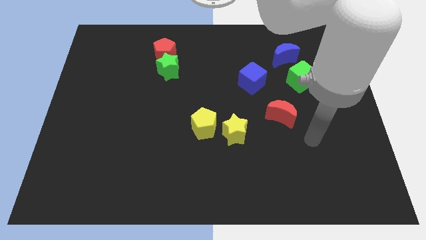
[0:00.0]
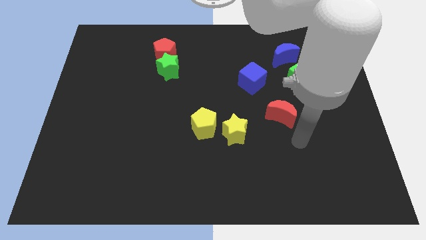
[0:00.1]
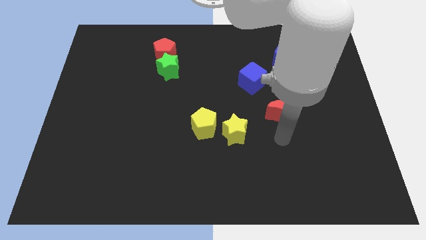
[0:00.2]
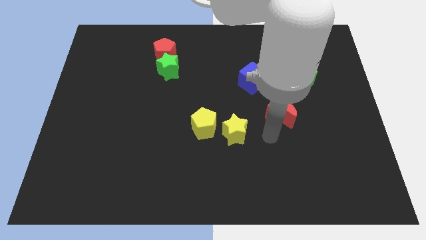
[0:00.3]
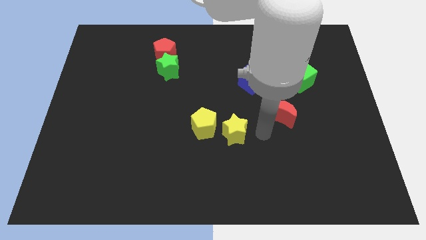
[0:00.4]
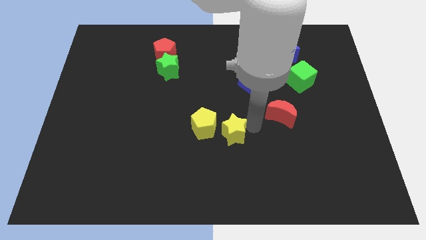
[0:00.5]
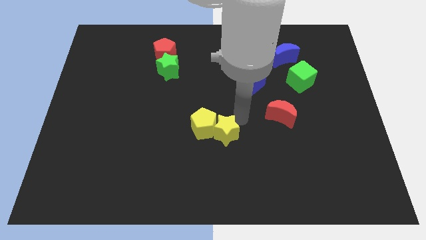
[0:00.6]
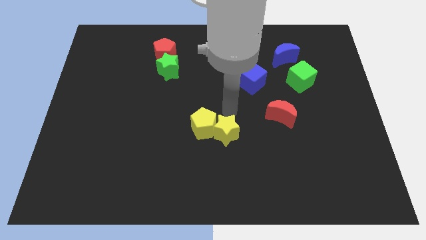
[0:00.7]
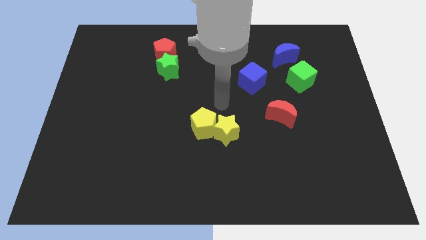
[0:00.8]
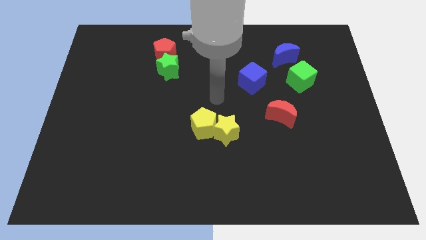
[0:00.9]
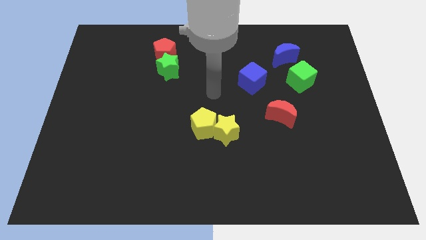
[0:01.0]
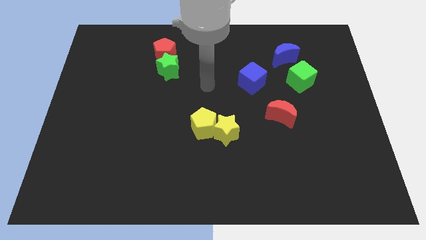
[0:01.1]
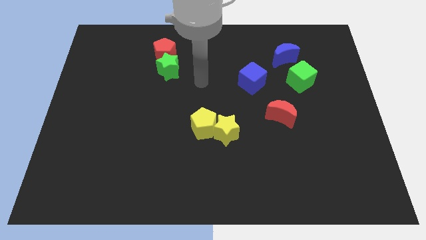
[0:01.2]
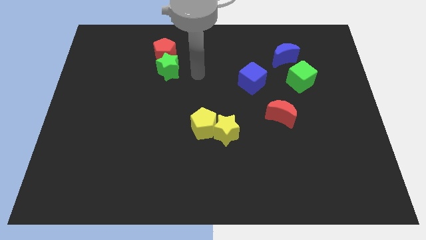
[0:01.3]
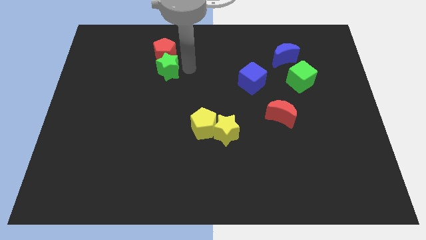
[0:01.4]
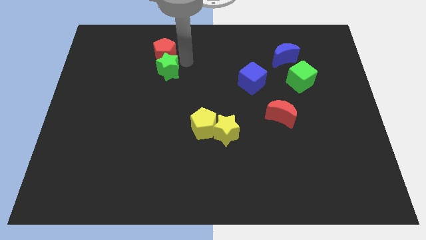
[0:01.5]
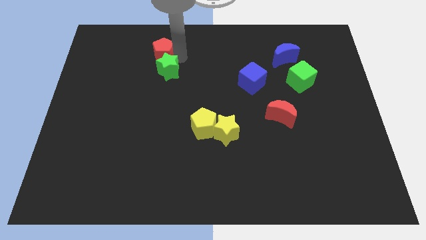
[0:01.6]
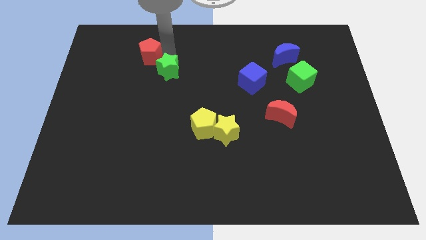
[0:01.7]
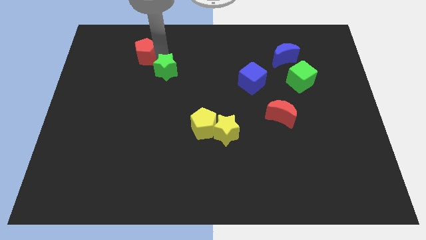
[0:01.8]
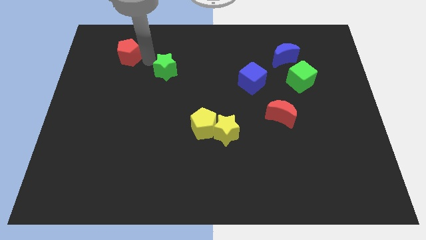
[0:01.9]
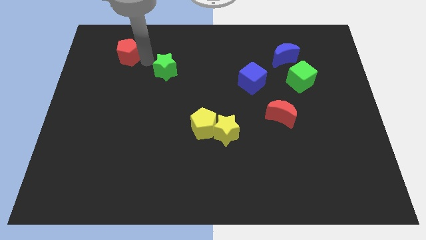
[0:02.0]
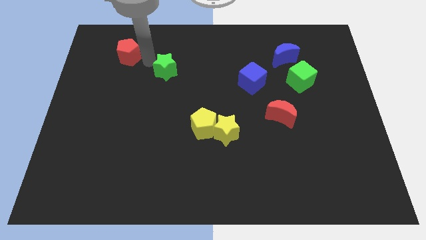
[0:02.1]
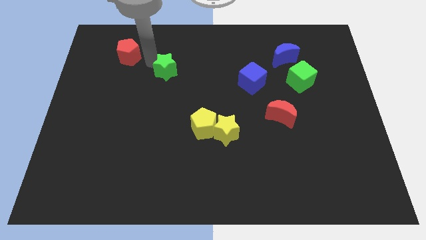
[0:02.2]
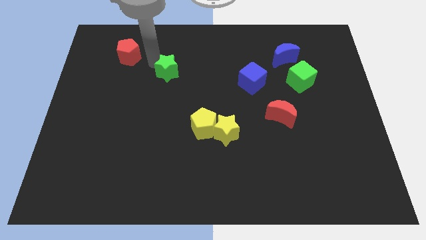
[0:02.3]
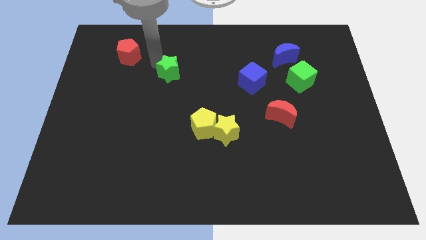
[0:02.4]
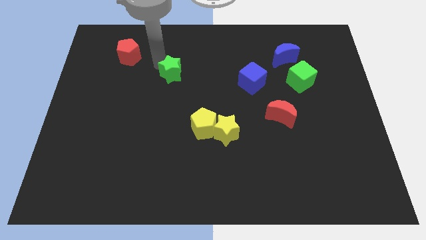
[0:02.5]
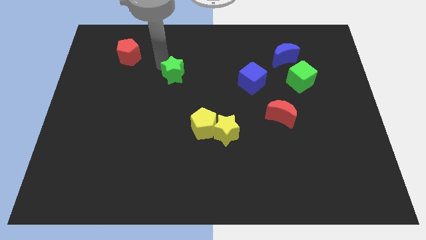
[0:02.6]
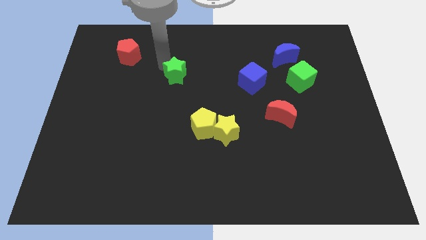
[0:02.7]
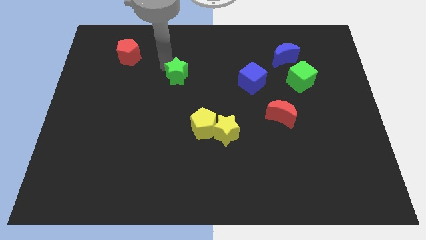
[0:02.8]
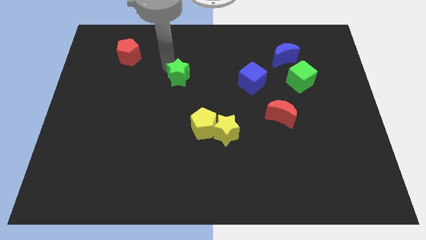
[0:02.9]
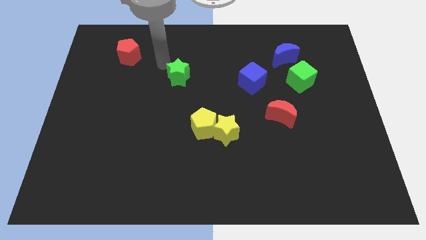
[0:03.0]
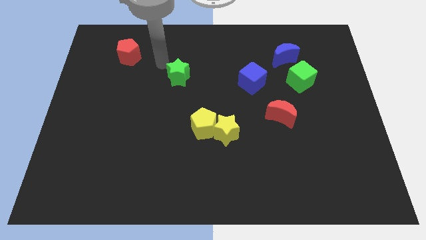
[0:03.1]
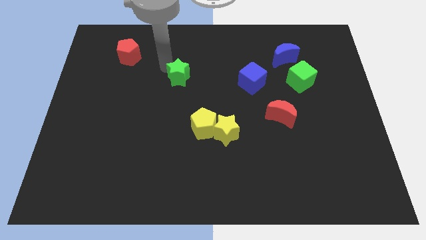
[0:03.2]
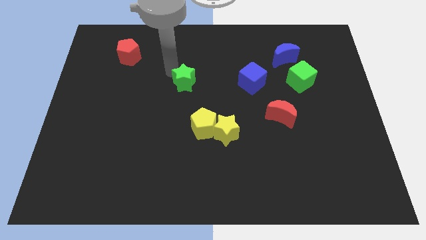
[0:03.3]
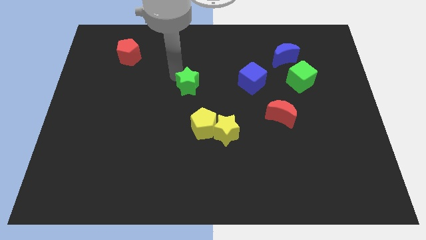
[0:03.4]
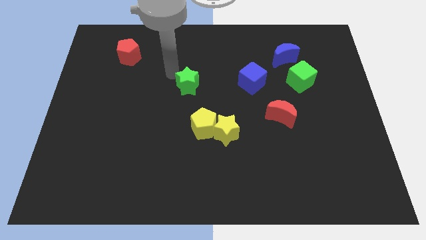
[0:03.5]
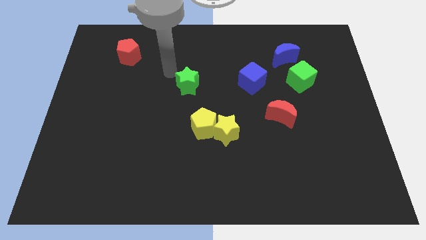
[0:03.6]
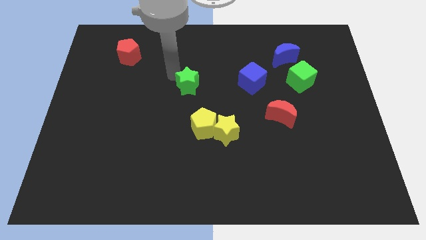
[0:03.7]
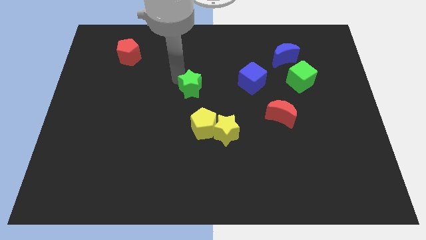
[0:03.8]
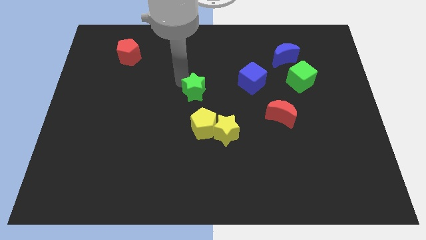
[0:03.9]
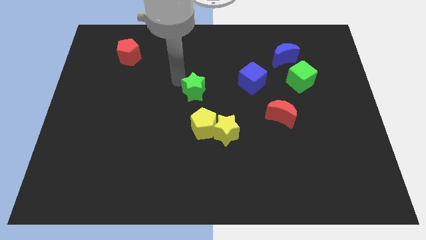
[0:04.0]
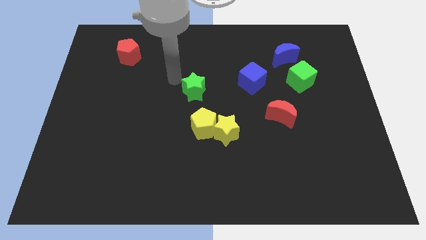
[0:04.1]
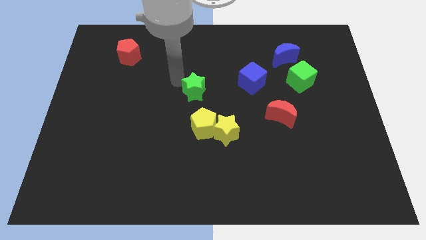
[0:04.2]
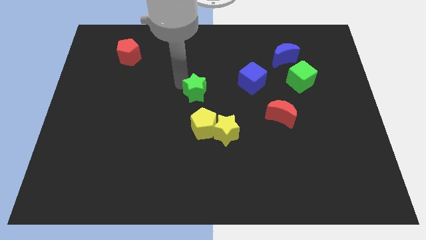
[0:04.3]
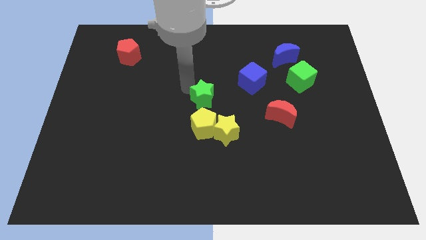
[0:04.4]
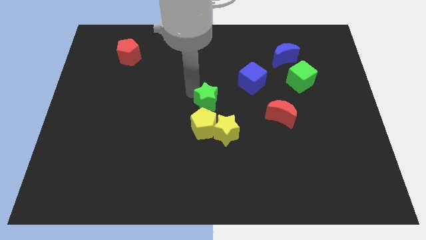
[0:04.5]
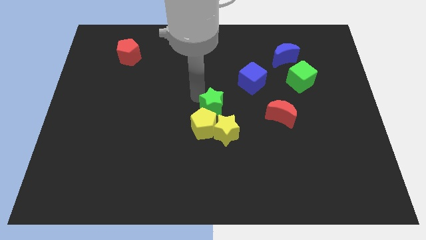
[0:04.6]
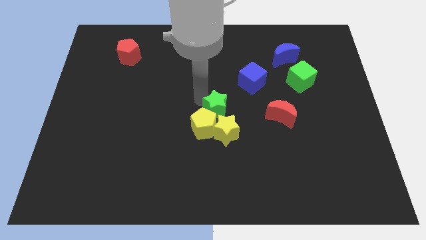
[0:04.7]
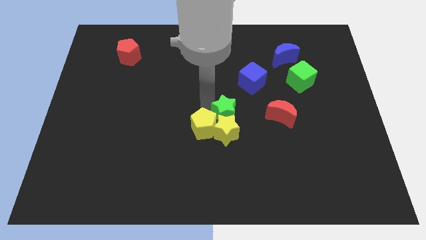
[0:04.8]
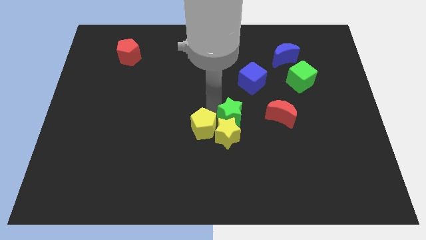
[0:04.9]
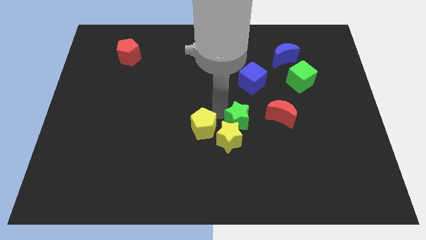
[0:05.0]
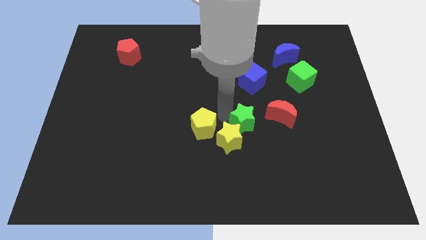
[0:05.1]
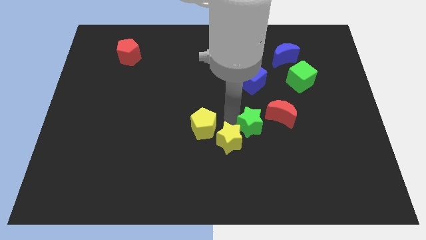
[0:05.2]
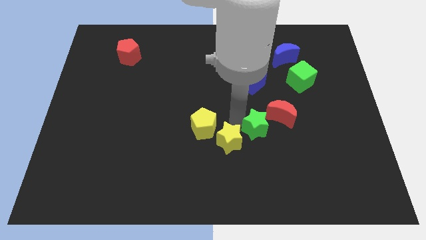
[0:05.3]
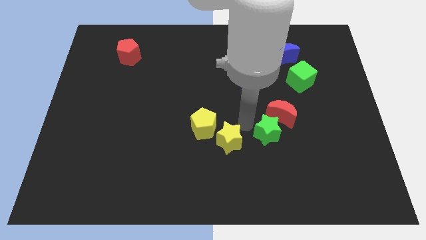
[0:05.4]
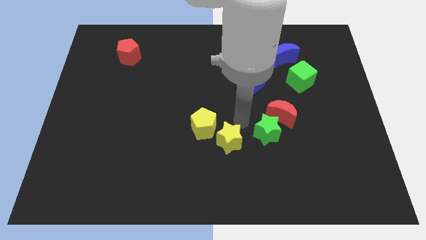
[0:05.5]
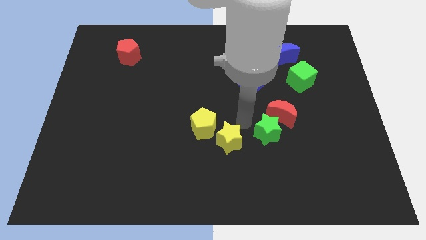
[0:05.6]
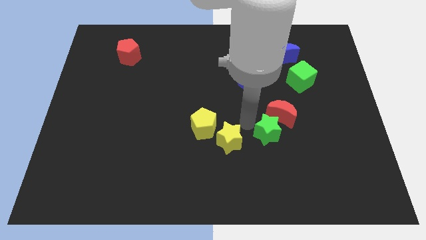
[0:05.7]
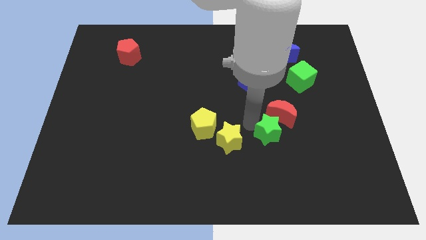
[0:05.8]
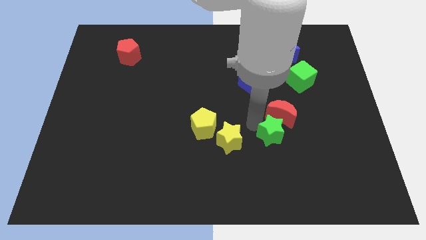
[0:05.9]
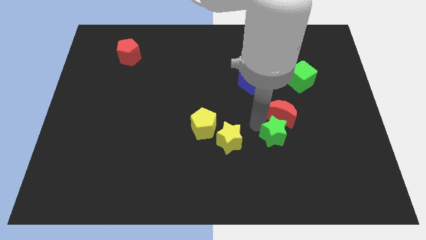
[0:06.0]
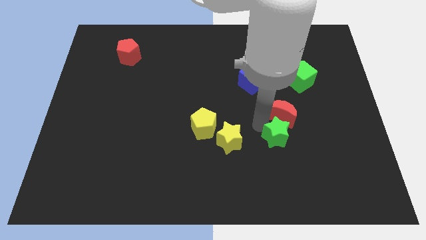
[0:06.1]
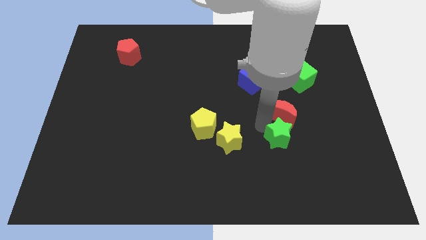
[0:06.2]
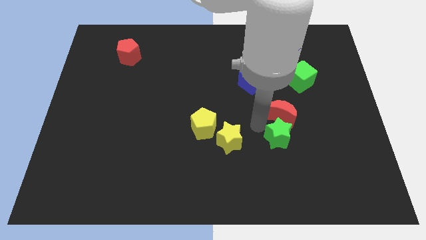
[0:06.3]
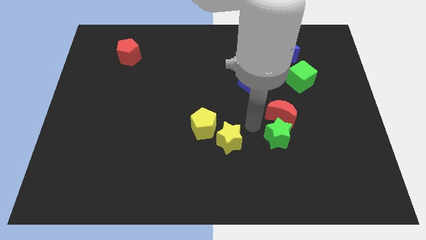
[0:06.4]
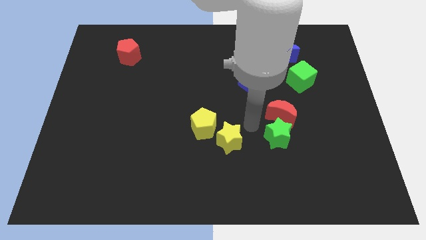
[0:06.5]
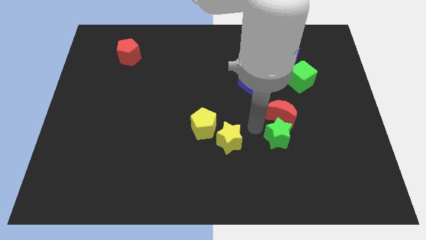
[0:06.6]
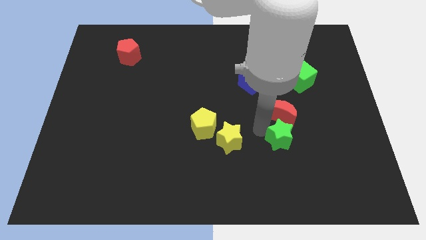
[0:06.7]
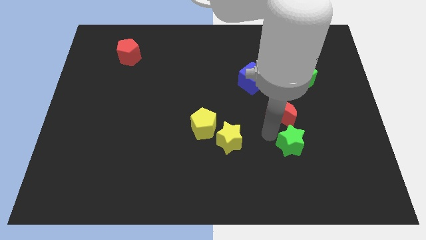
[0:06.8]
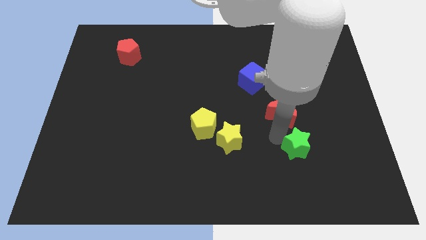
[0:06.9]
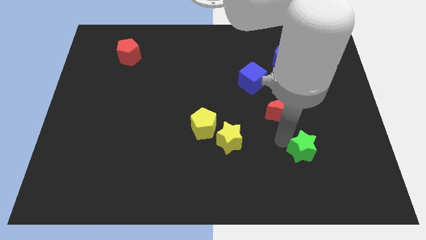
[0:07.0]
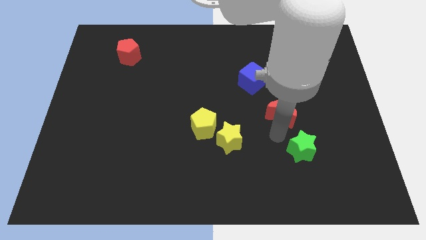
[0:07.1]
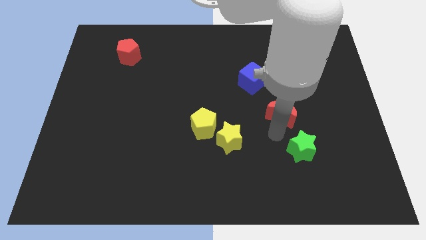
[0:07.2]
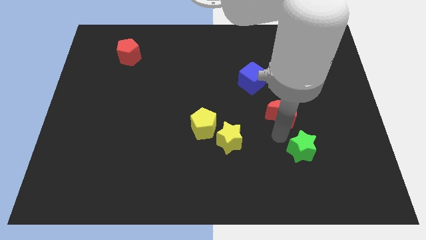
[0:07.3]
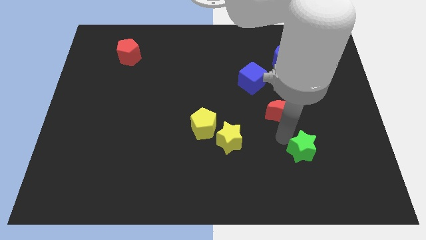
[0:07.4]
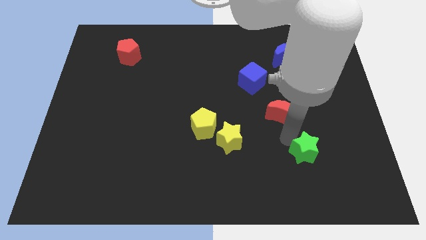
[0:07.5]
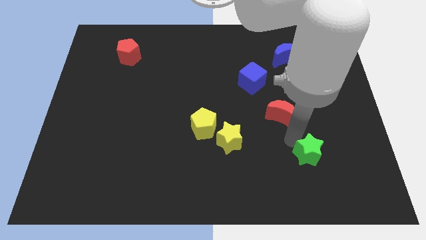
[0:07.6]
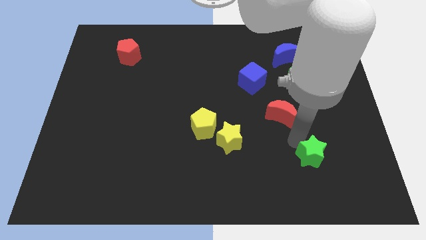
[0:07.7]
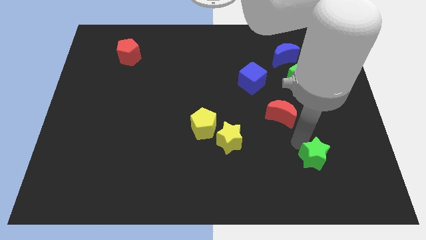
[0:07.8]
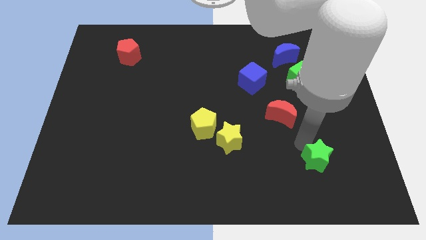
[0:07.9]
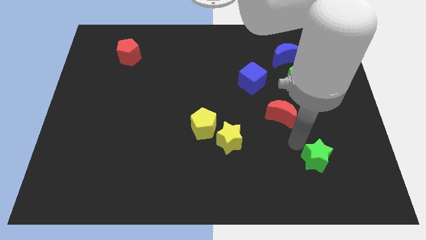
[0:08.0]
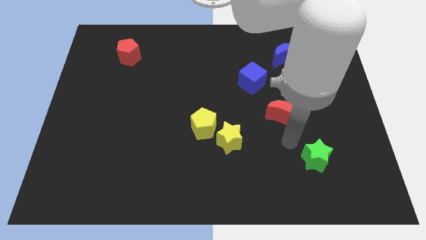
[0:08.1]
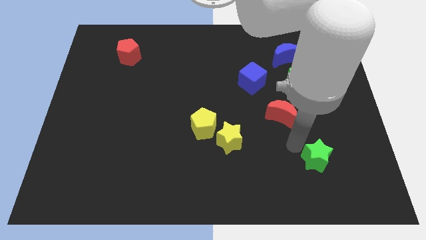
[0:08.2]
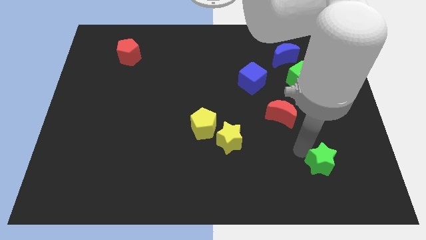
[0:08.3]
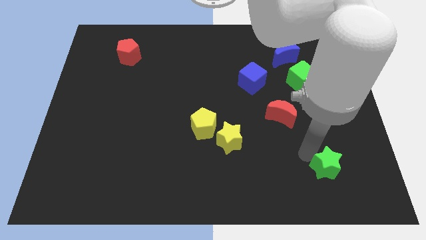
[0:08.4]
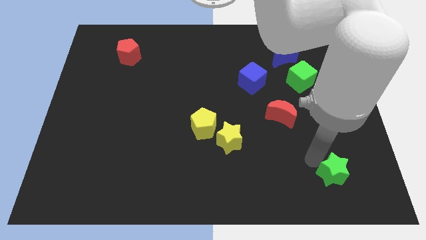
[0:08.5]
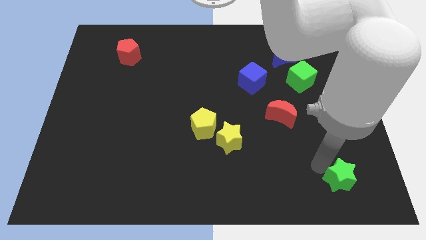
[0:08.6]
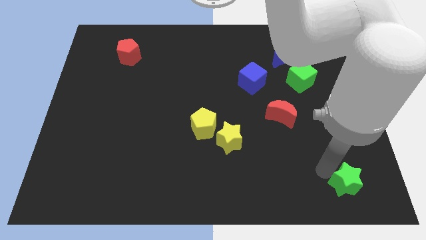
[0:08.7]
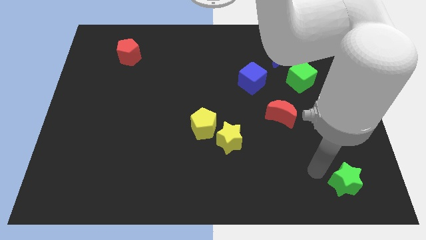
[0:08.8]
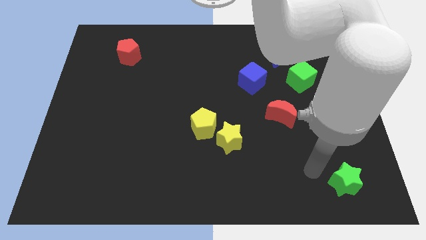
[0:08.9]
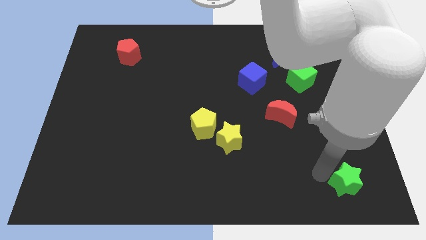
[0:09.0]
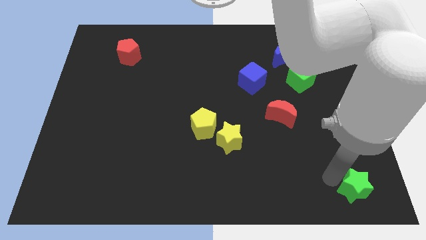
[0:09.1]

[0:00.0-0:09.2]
slide the green star to the bottom right corner
